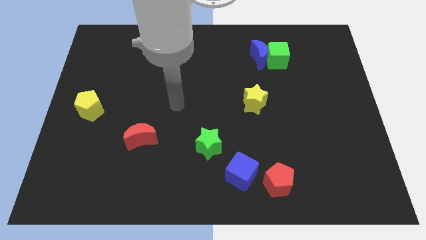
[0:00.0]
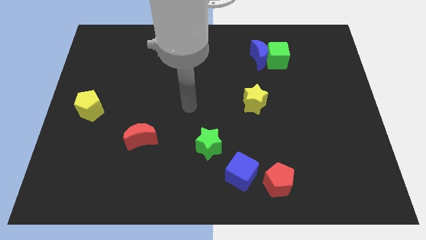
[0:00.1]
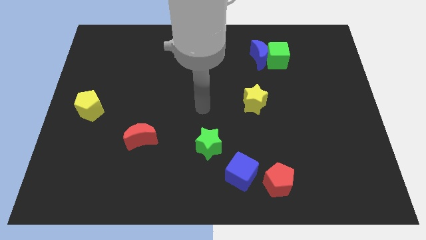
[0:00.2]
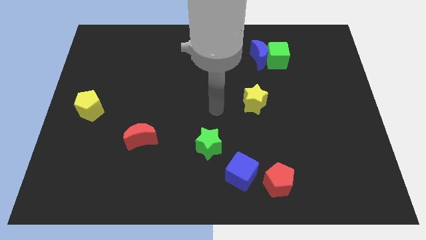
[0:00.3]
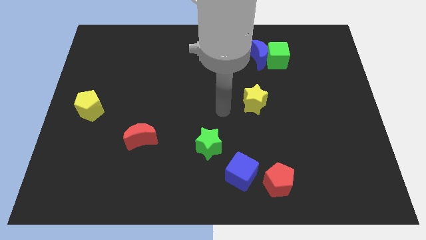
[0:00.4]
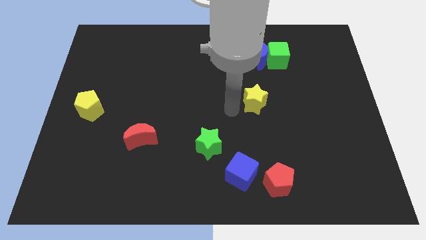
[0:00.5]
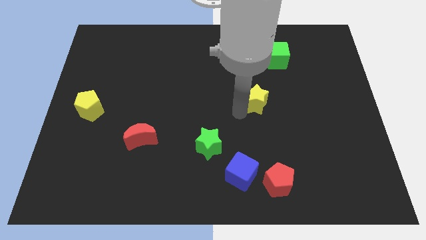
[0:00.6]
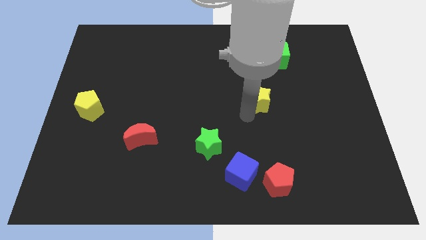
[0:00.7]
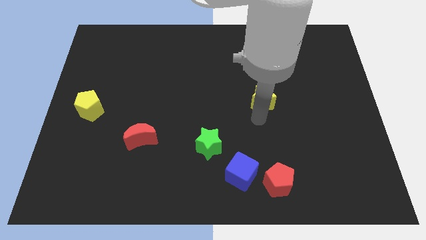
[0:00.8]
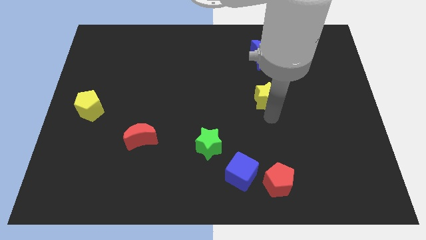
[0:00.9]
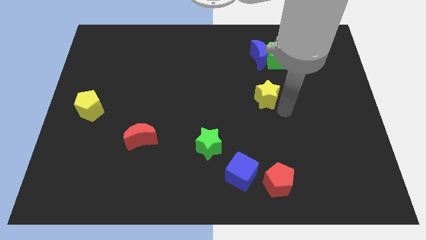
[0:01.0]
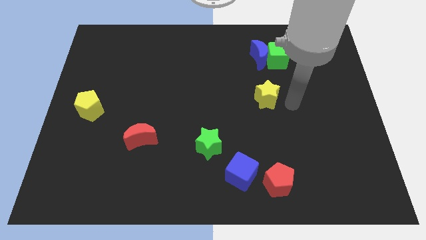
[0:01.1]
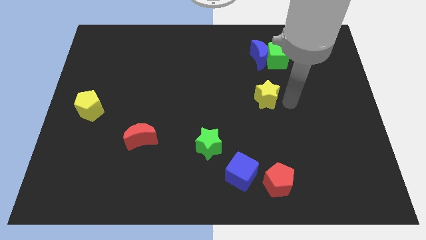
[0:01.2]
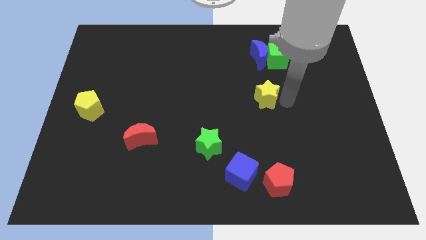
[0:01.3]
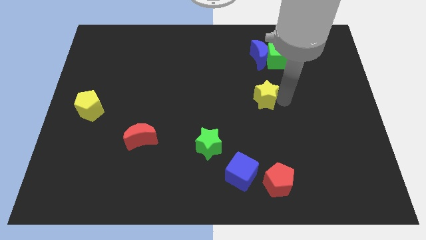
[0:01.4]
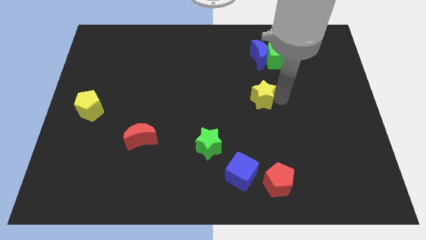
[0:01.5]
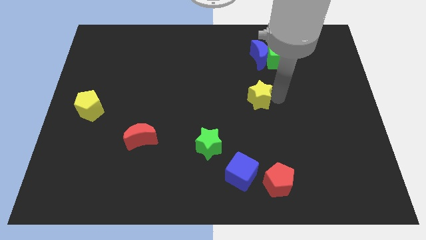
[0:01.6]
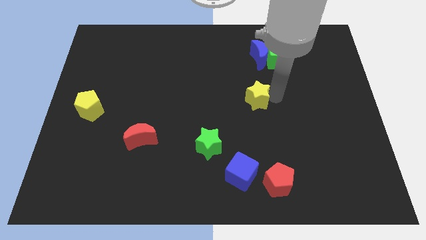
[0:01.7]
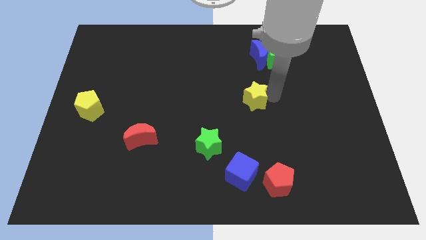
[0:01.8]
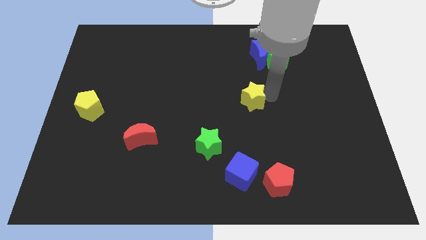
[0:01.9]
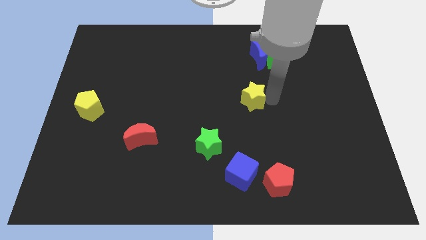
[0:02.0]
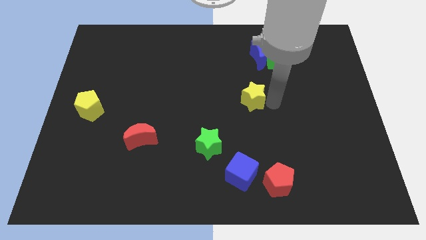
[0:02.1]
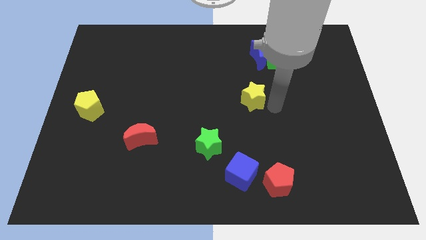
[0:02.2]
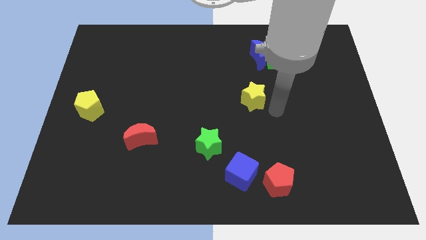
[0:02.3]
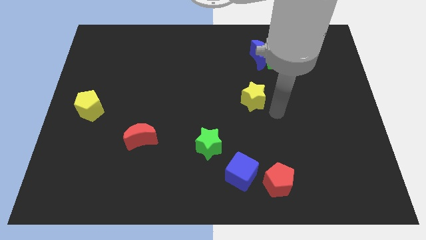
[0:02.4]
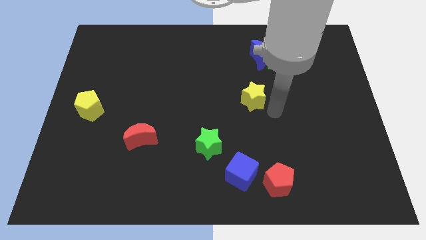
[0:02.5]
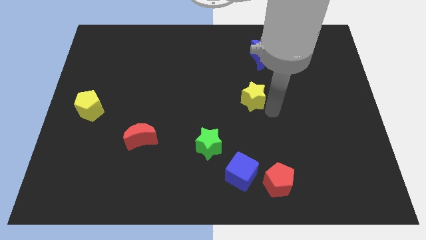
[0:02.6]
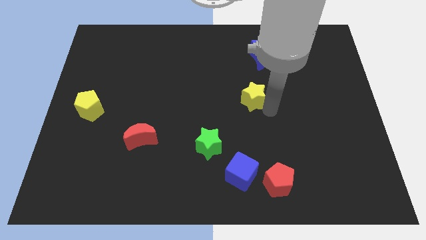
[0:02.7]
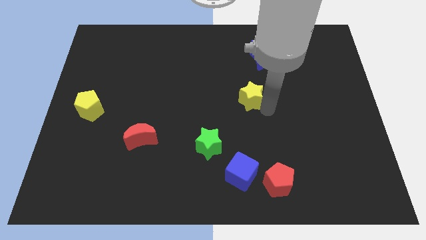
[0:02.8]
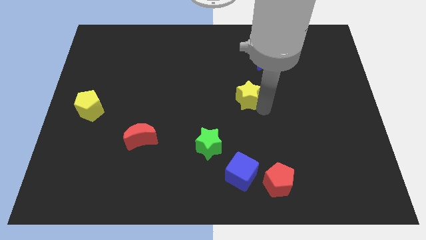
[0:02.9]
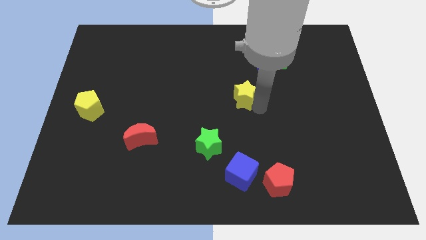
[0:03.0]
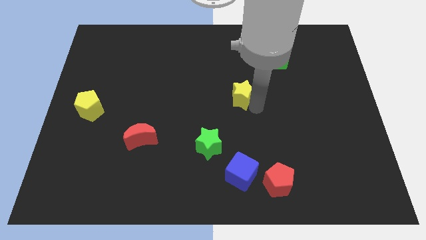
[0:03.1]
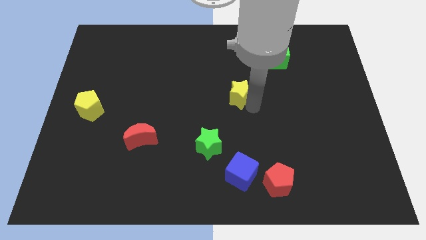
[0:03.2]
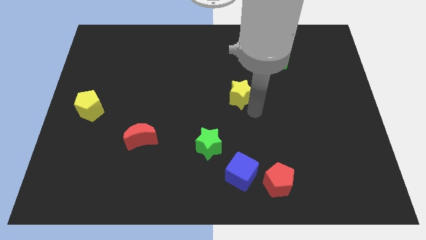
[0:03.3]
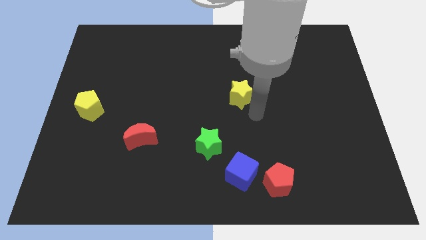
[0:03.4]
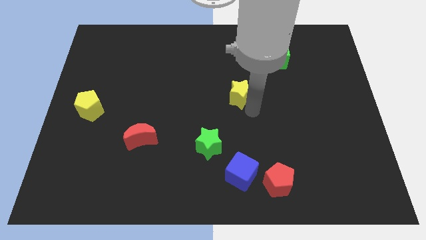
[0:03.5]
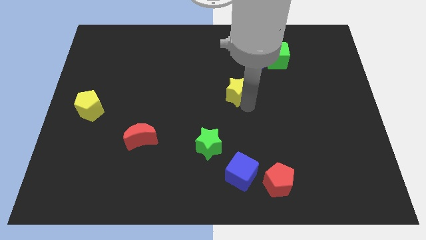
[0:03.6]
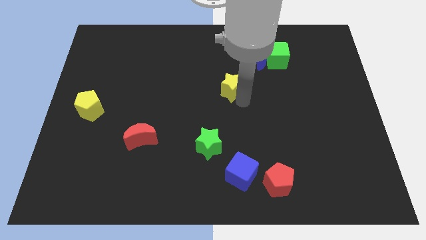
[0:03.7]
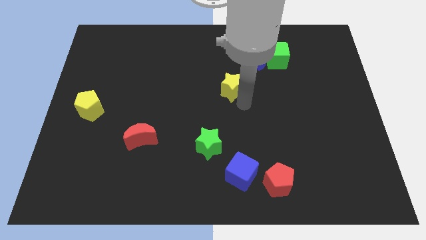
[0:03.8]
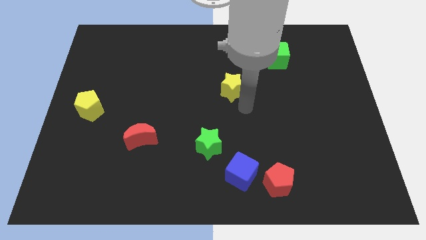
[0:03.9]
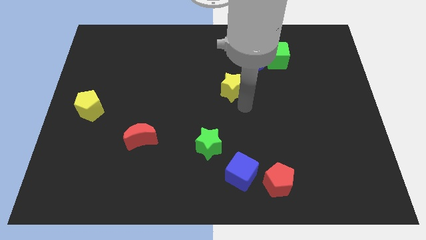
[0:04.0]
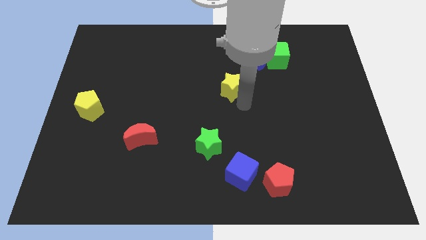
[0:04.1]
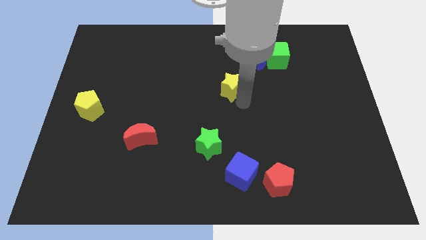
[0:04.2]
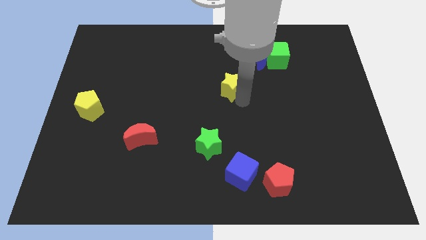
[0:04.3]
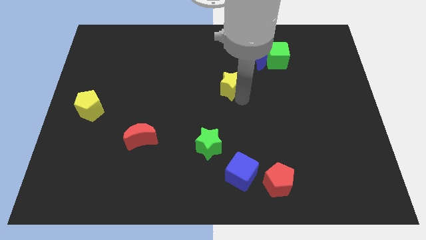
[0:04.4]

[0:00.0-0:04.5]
slide the yellow star up and then left somewhat

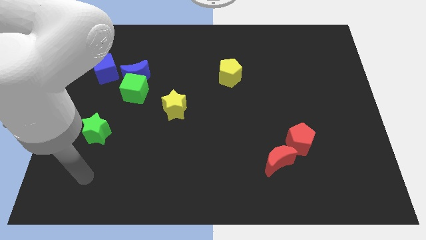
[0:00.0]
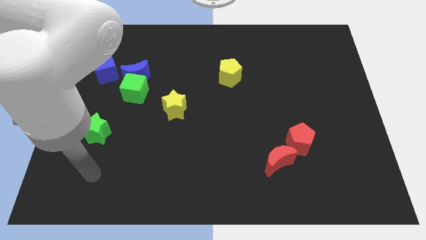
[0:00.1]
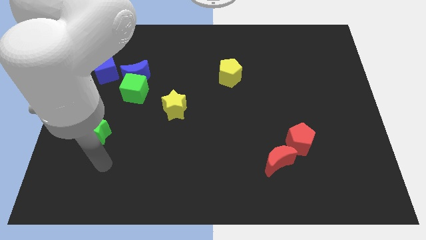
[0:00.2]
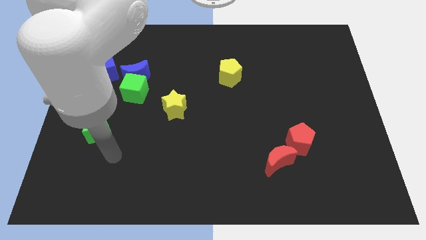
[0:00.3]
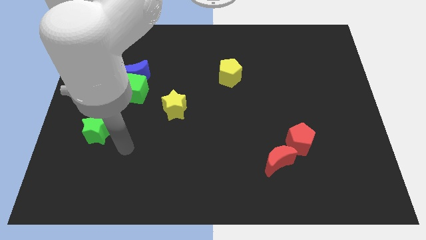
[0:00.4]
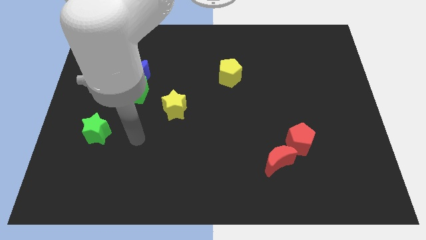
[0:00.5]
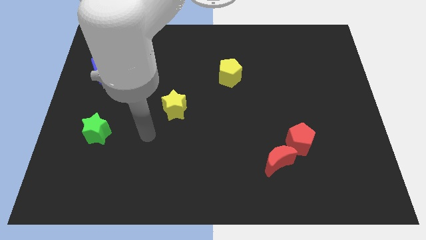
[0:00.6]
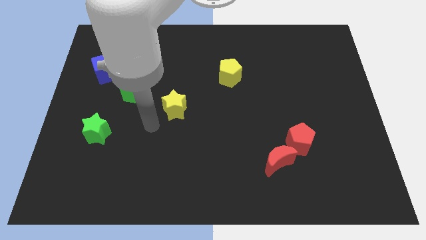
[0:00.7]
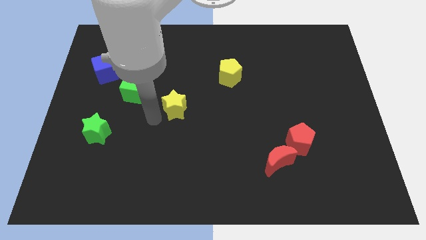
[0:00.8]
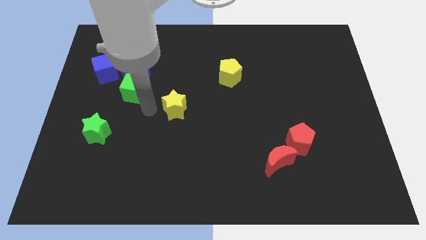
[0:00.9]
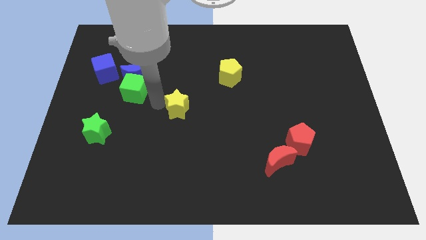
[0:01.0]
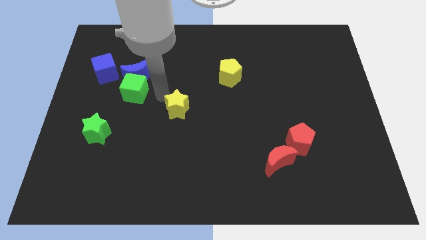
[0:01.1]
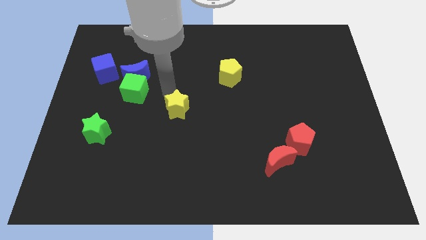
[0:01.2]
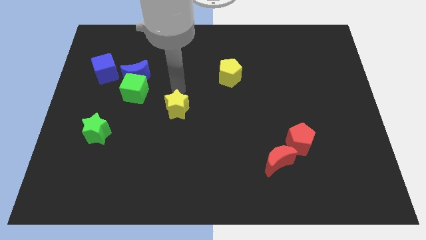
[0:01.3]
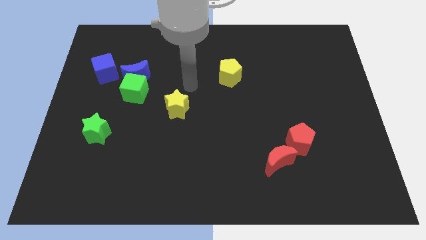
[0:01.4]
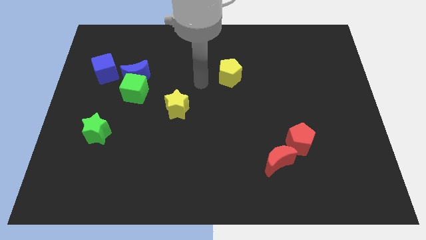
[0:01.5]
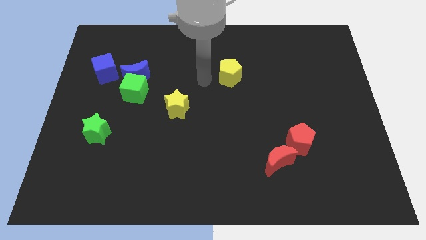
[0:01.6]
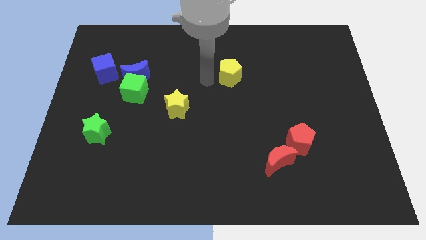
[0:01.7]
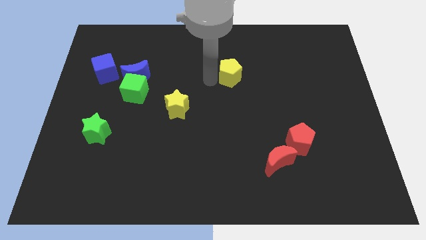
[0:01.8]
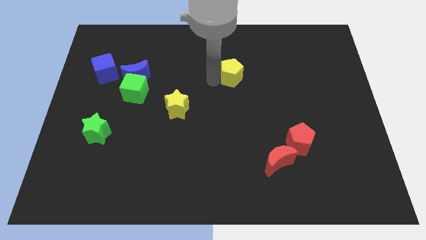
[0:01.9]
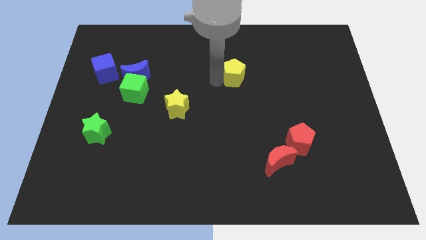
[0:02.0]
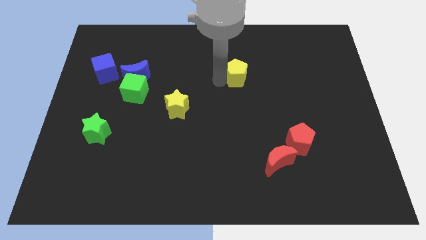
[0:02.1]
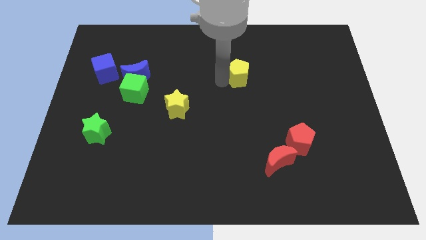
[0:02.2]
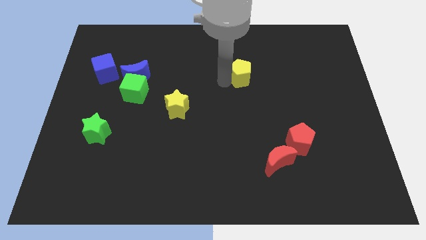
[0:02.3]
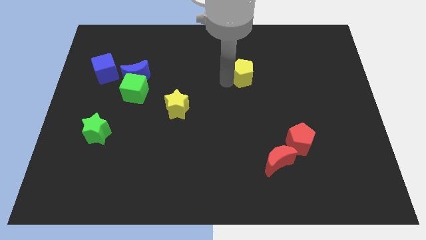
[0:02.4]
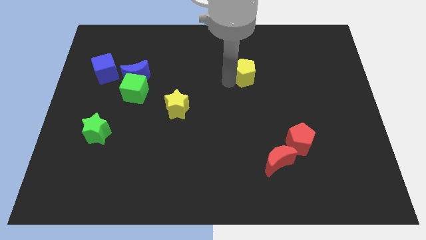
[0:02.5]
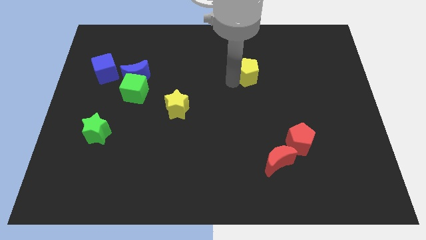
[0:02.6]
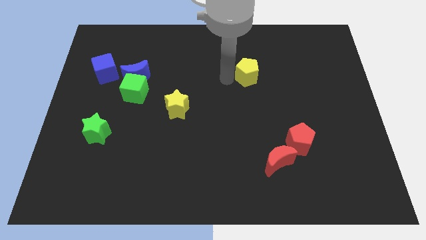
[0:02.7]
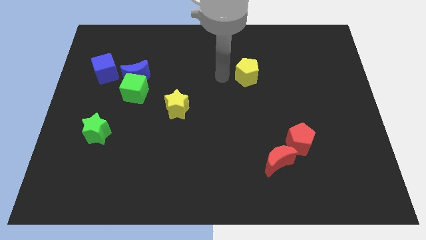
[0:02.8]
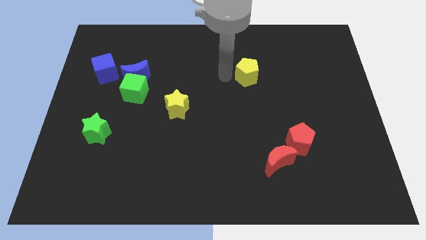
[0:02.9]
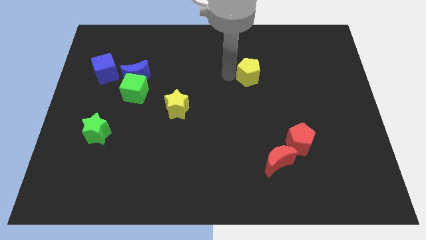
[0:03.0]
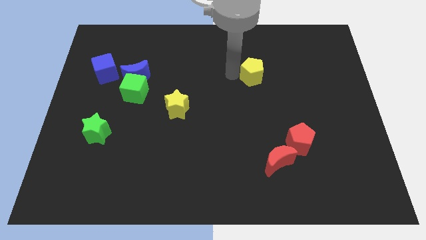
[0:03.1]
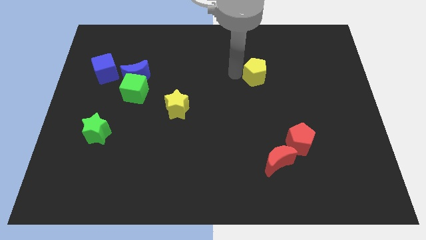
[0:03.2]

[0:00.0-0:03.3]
slide the yellow pentagon a little bit right

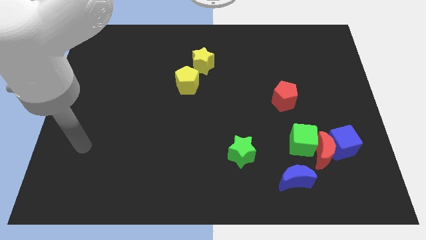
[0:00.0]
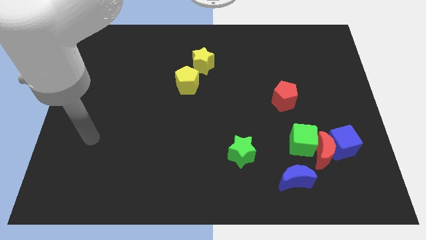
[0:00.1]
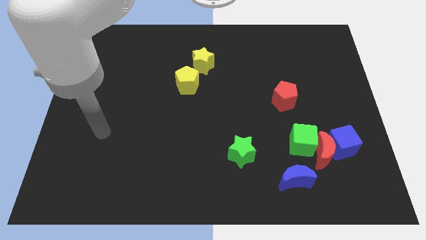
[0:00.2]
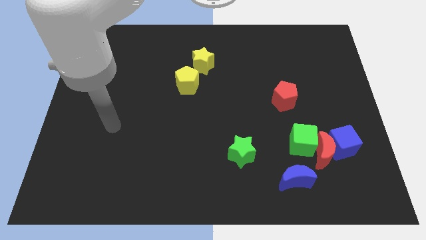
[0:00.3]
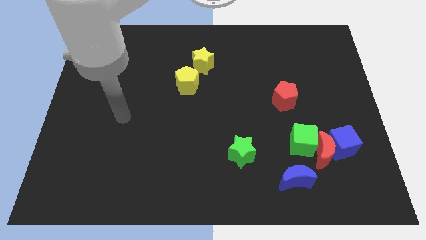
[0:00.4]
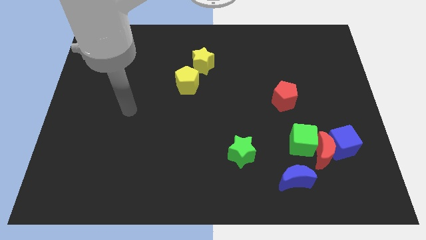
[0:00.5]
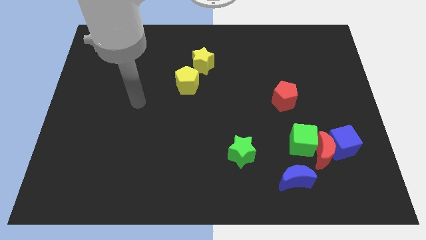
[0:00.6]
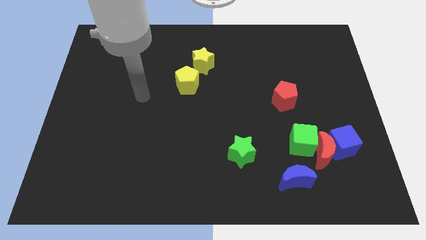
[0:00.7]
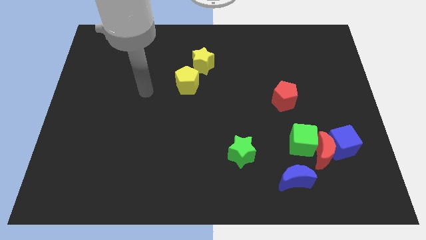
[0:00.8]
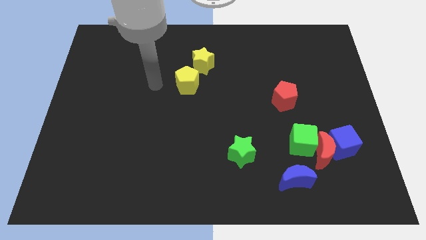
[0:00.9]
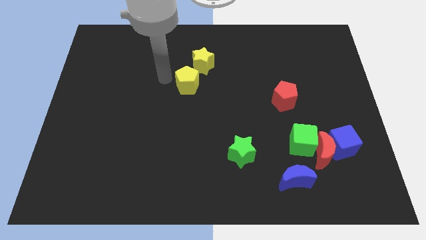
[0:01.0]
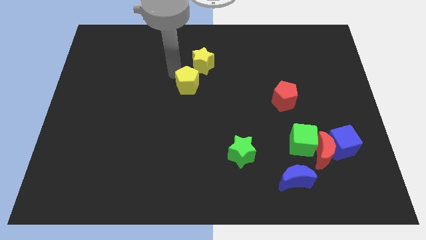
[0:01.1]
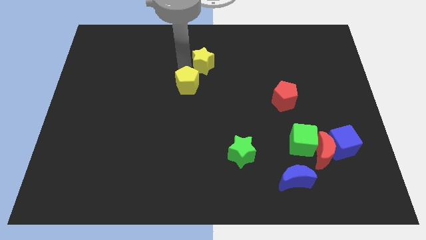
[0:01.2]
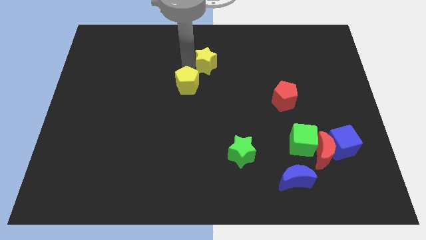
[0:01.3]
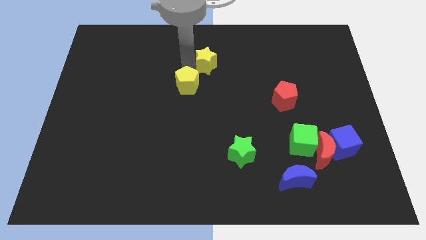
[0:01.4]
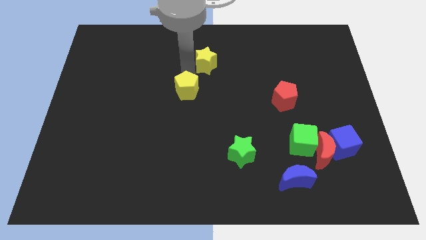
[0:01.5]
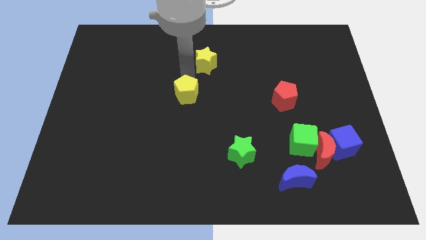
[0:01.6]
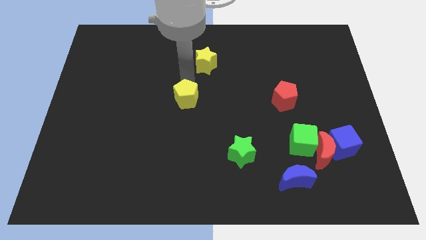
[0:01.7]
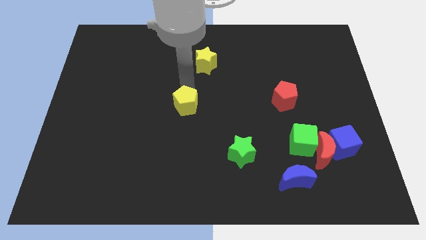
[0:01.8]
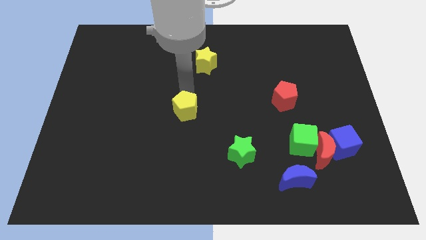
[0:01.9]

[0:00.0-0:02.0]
move the yellow pentagon a little bit downwards
